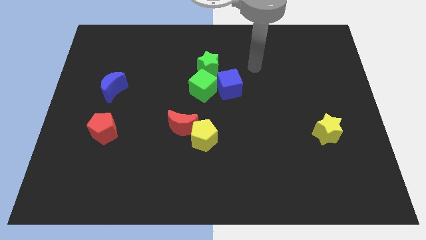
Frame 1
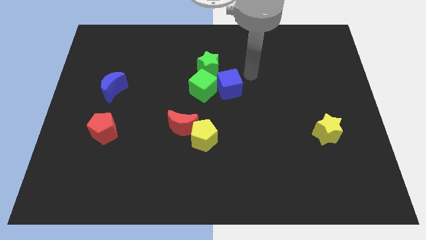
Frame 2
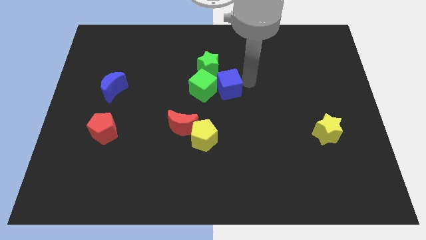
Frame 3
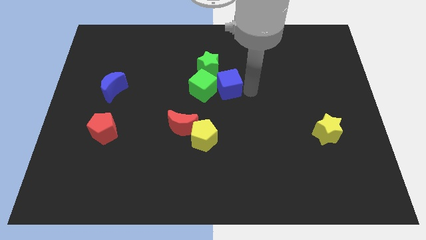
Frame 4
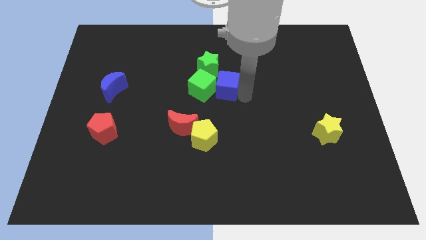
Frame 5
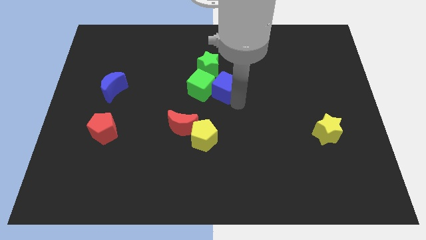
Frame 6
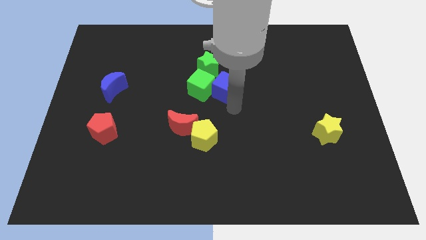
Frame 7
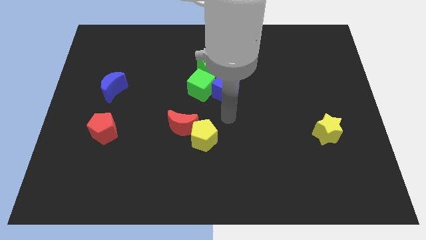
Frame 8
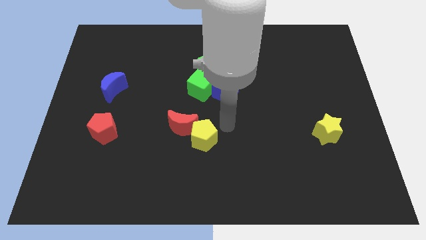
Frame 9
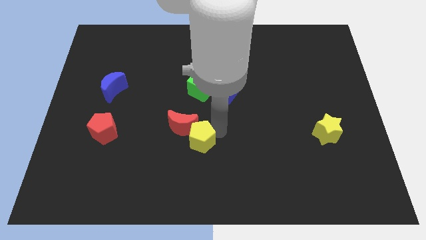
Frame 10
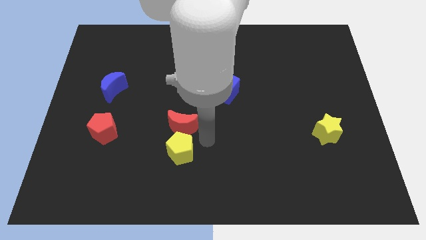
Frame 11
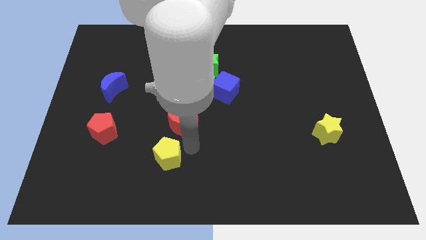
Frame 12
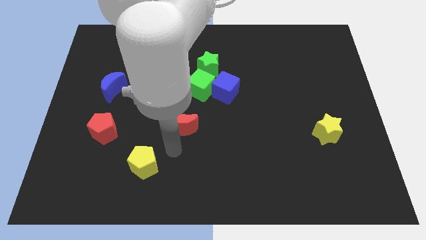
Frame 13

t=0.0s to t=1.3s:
separate the red moon from the yellow pentagon

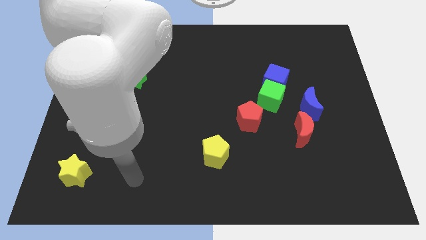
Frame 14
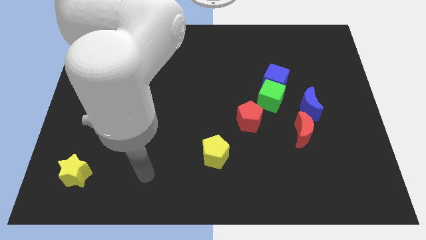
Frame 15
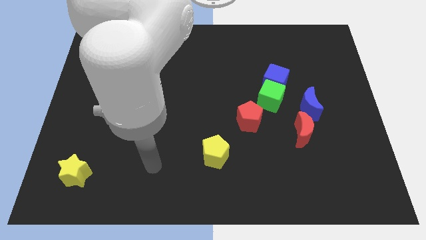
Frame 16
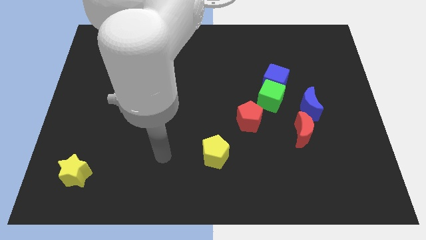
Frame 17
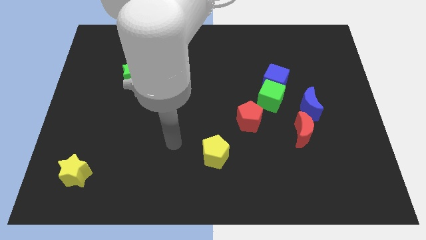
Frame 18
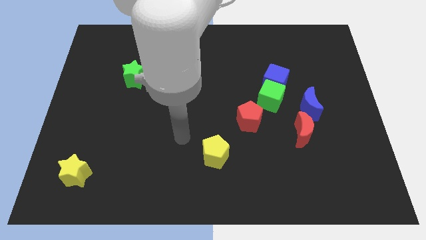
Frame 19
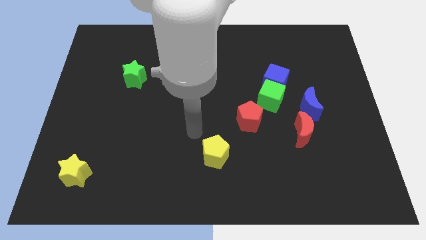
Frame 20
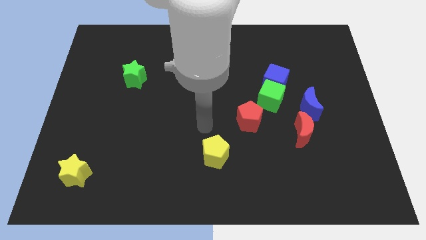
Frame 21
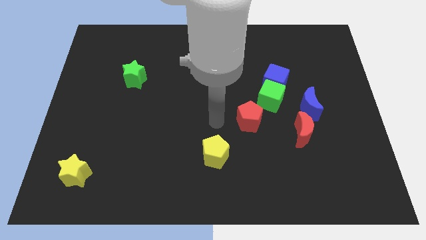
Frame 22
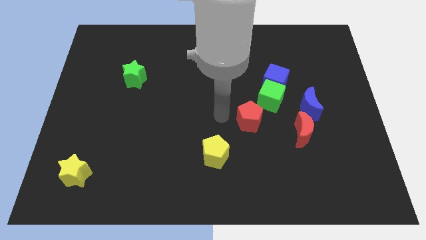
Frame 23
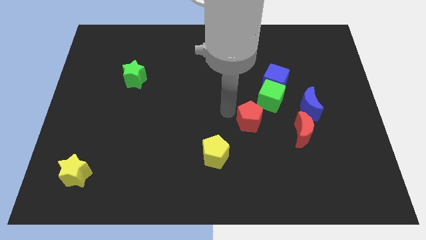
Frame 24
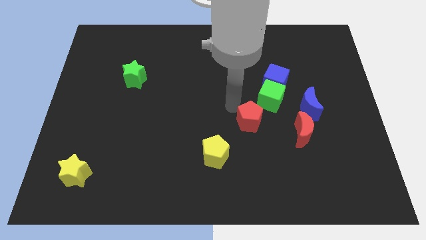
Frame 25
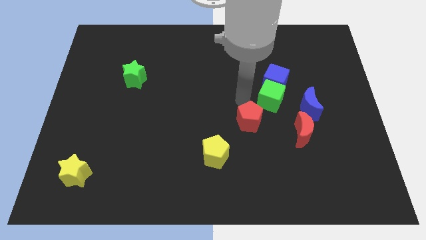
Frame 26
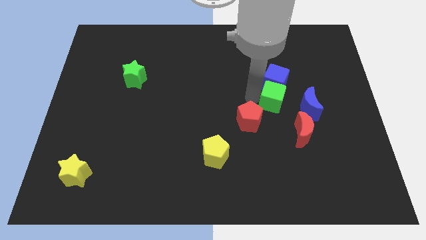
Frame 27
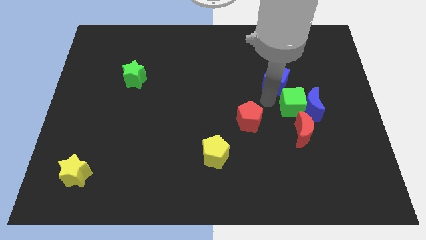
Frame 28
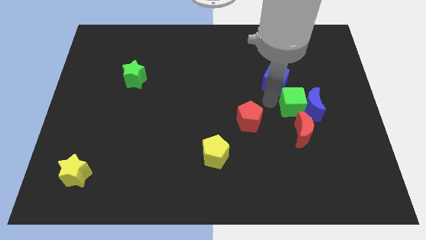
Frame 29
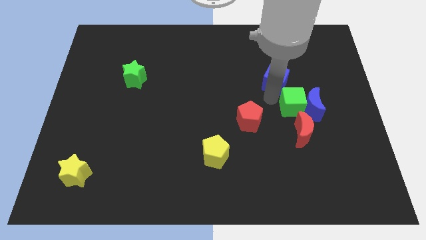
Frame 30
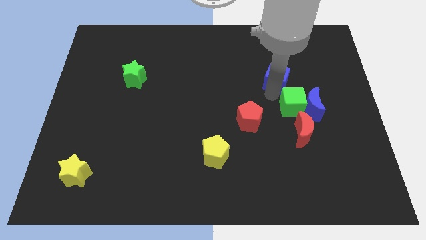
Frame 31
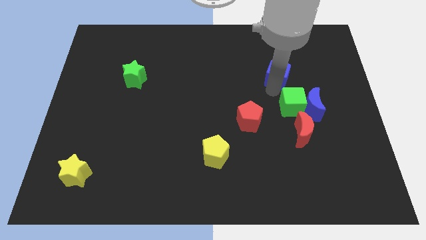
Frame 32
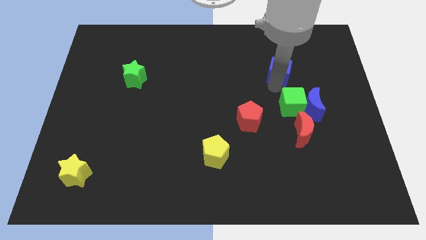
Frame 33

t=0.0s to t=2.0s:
pull the blue cube apart from the green cube

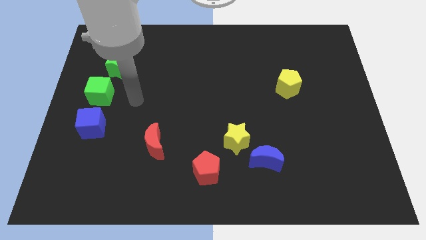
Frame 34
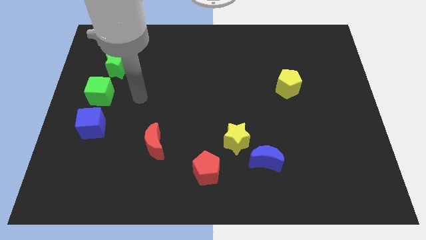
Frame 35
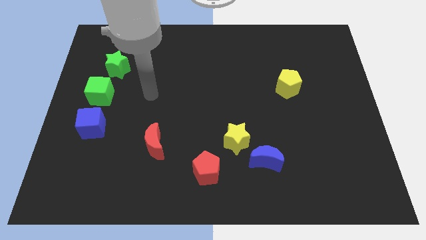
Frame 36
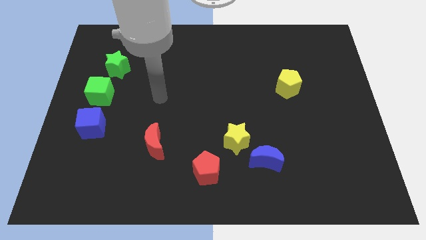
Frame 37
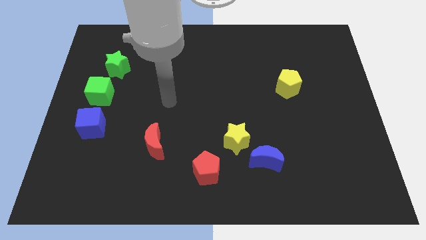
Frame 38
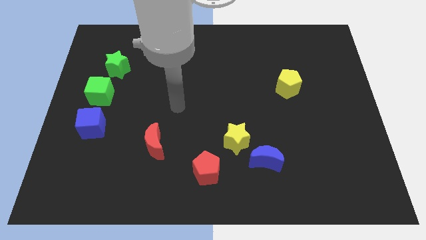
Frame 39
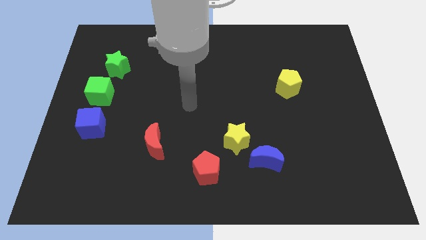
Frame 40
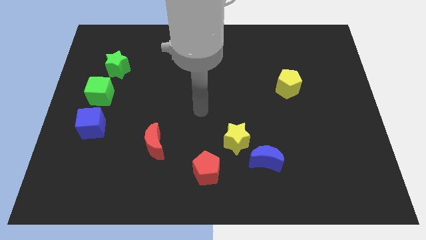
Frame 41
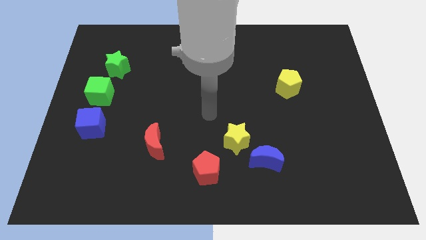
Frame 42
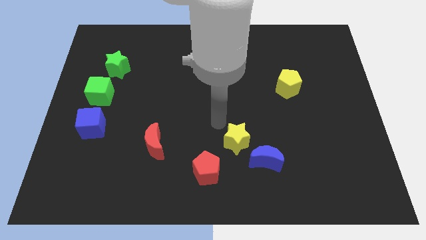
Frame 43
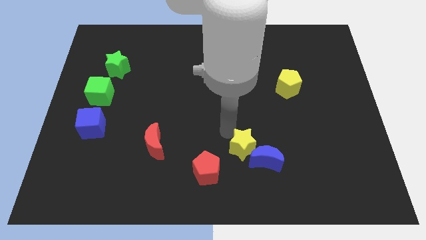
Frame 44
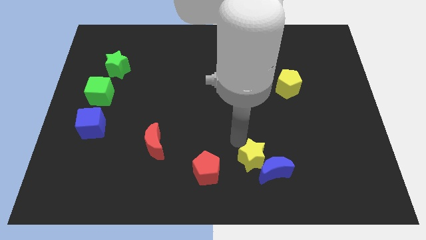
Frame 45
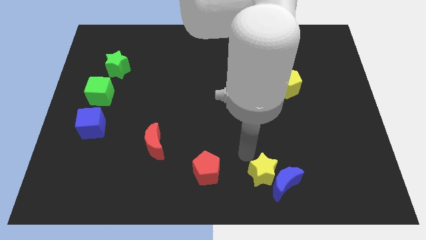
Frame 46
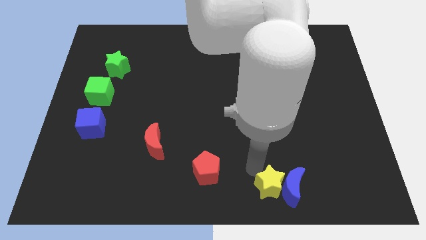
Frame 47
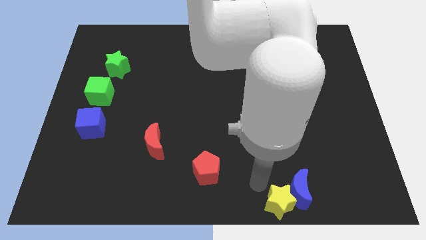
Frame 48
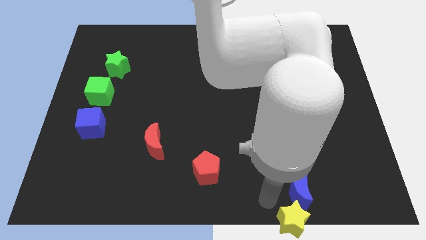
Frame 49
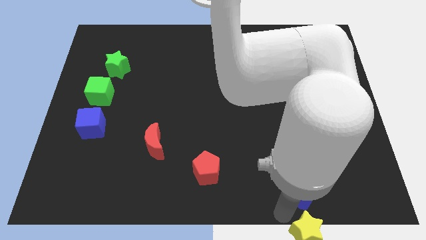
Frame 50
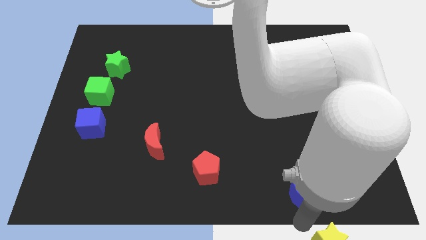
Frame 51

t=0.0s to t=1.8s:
pull the blue moon apart from the yellow star

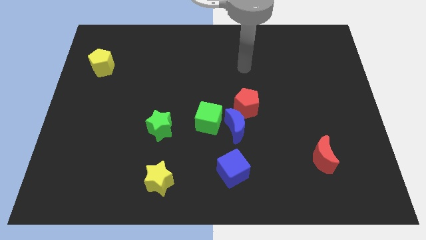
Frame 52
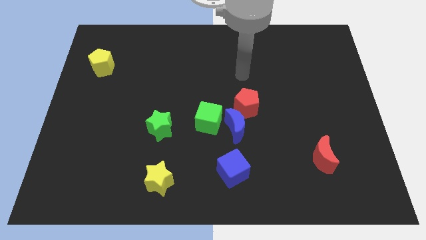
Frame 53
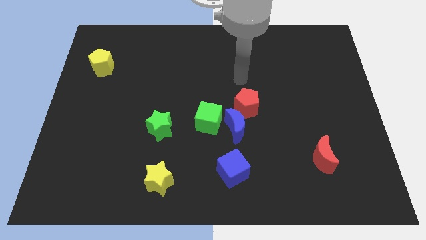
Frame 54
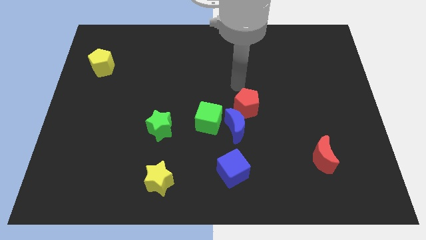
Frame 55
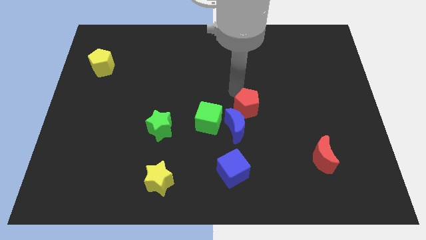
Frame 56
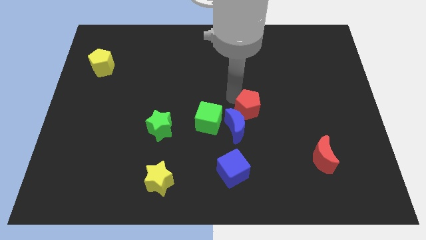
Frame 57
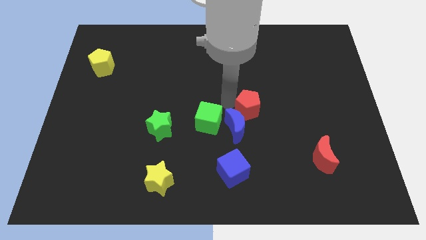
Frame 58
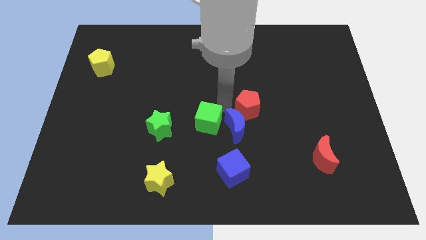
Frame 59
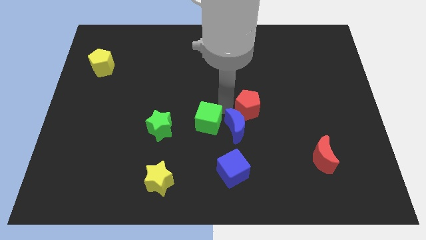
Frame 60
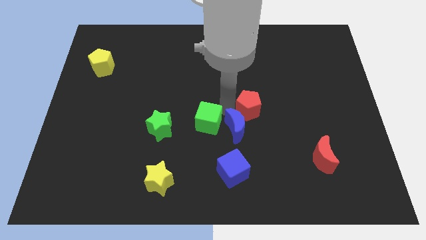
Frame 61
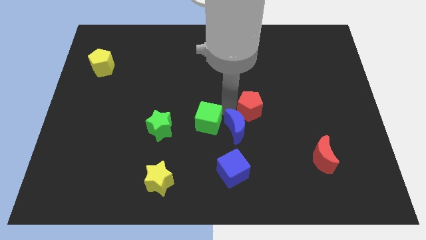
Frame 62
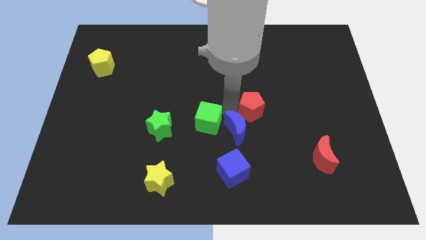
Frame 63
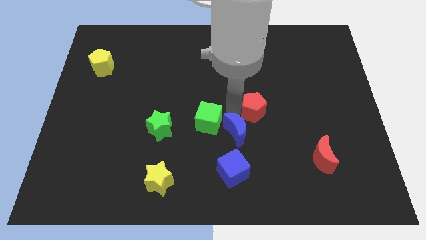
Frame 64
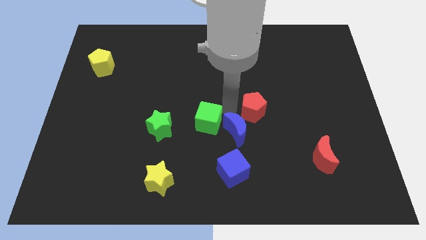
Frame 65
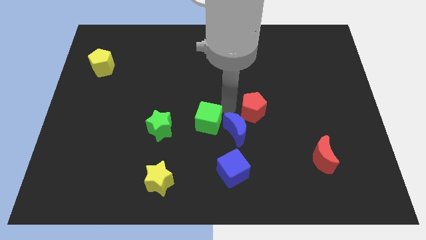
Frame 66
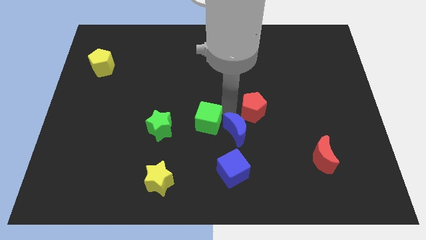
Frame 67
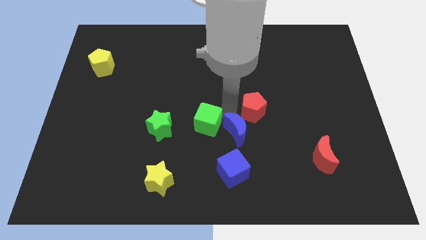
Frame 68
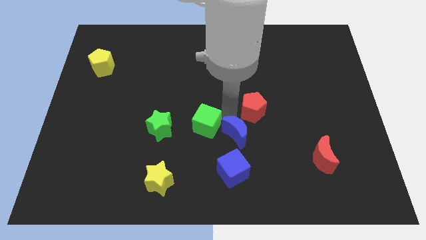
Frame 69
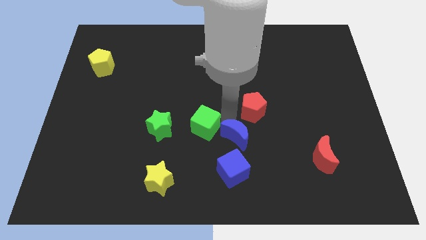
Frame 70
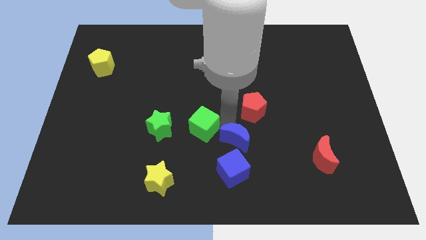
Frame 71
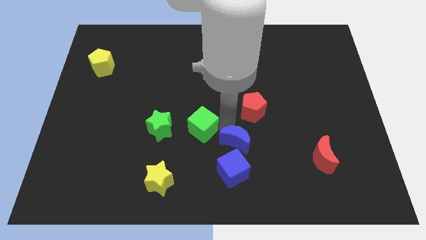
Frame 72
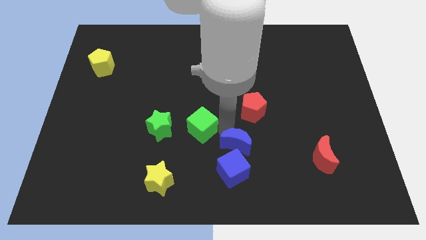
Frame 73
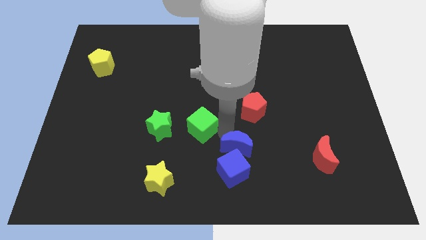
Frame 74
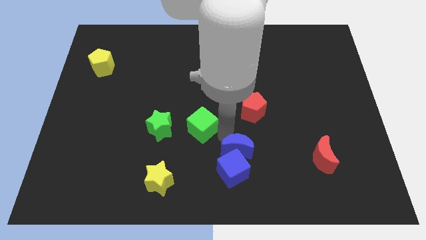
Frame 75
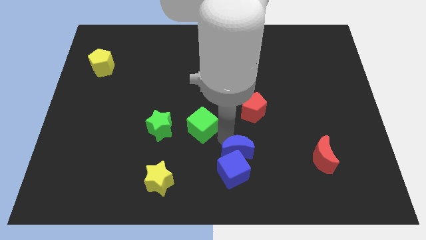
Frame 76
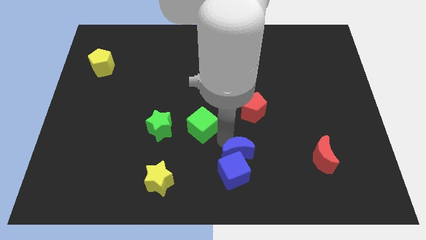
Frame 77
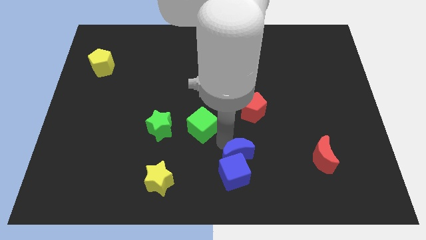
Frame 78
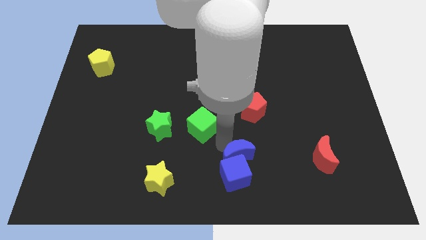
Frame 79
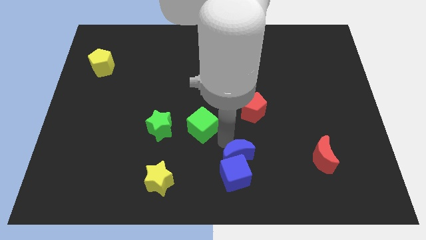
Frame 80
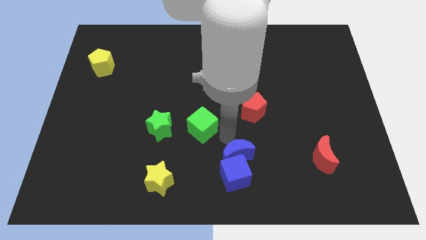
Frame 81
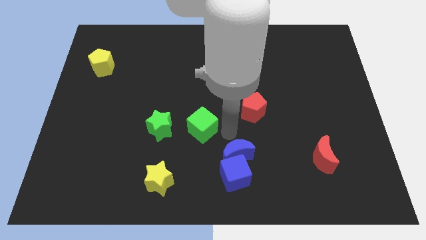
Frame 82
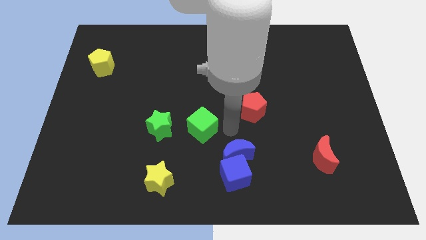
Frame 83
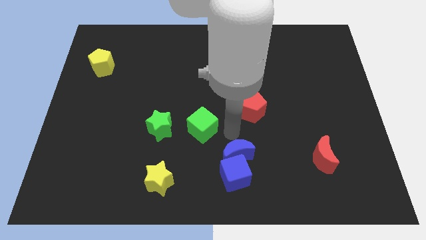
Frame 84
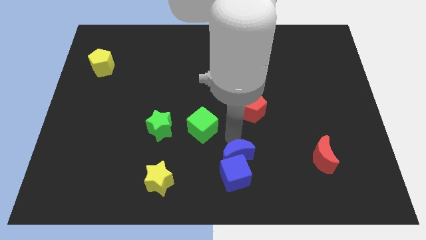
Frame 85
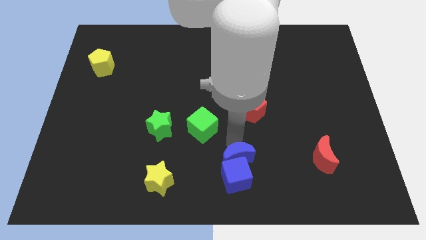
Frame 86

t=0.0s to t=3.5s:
move the blue moon away from the green cube and red pentagon

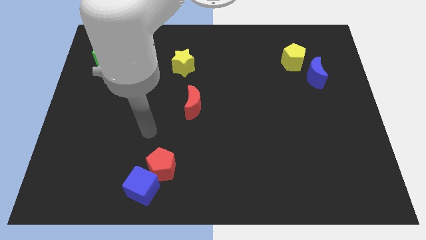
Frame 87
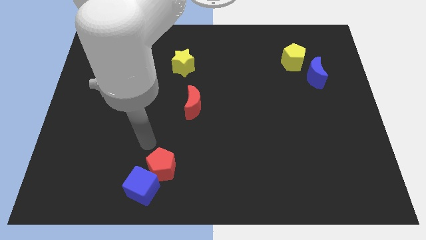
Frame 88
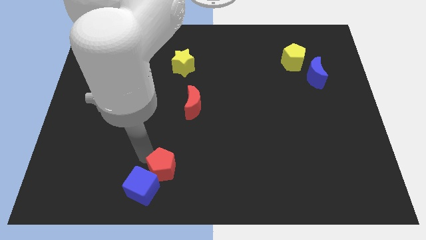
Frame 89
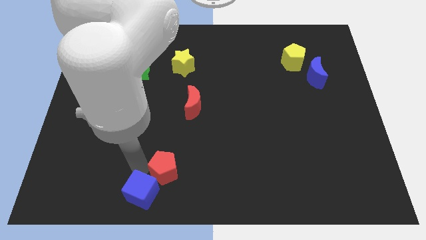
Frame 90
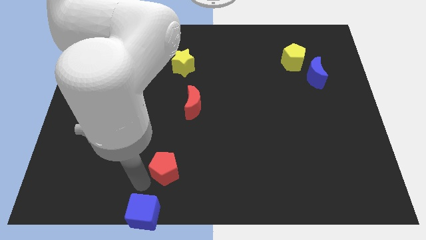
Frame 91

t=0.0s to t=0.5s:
separate the red pentagon from the blue cube

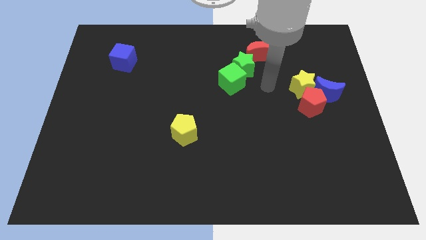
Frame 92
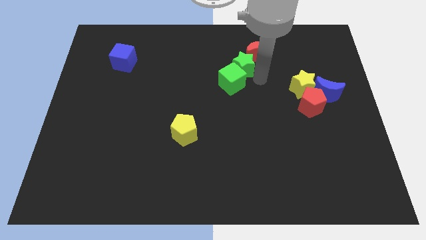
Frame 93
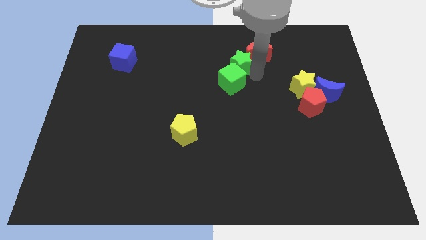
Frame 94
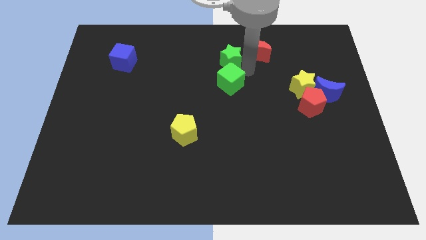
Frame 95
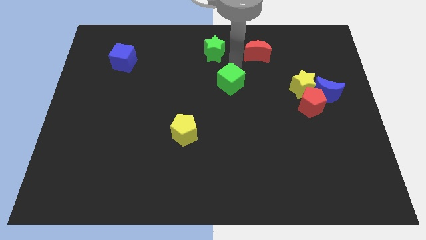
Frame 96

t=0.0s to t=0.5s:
pull the green cube apart from the green star
